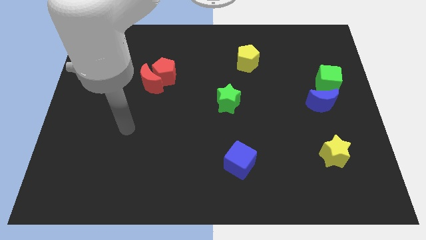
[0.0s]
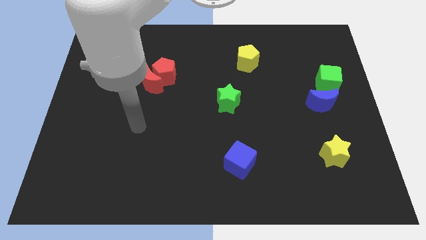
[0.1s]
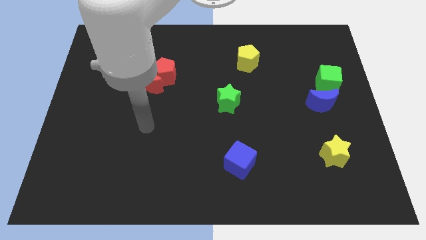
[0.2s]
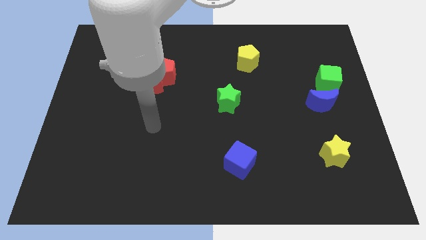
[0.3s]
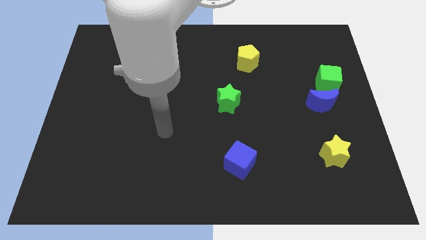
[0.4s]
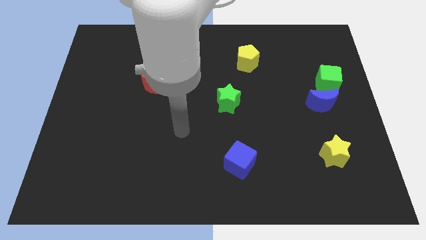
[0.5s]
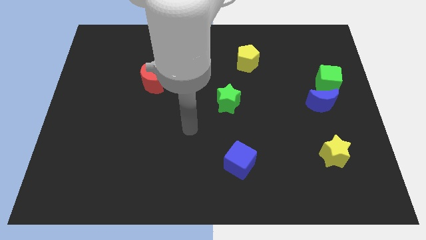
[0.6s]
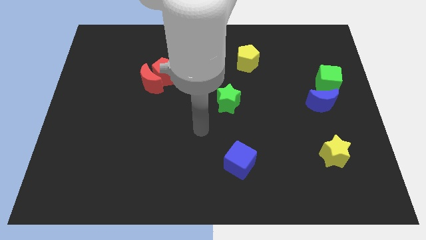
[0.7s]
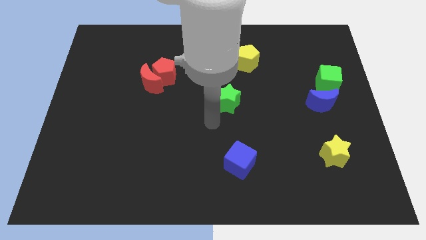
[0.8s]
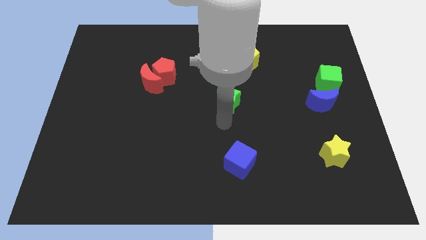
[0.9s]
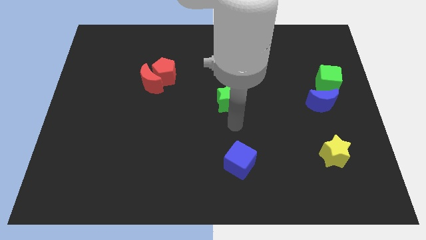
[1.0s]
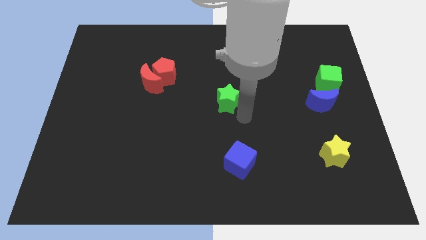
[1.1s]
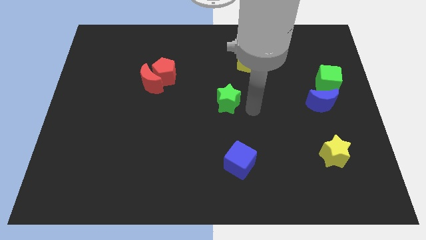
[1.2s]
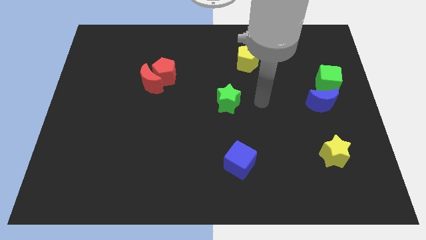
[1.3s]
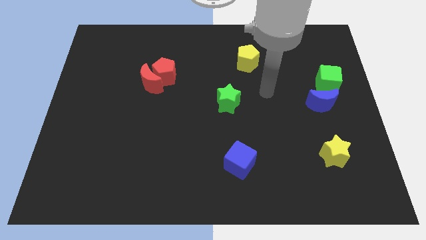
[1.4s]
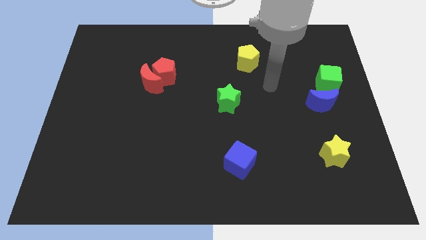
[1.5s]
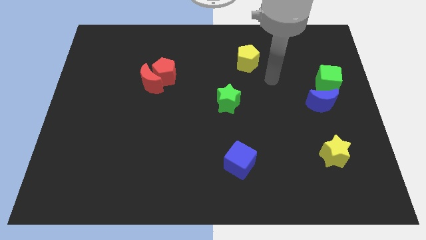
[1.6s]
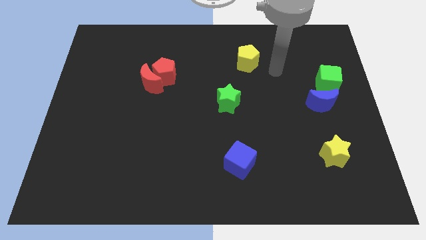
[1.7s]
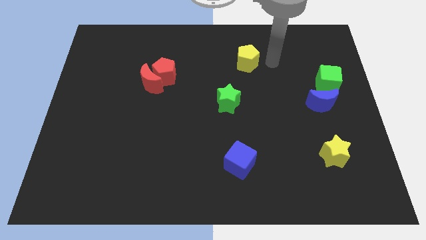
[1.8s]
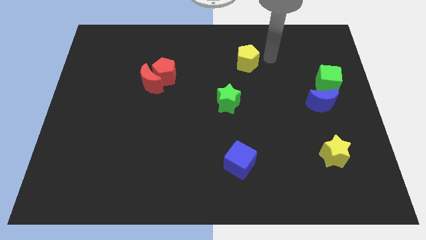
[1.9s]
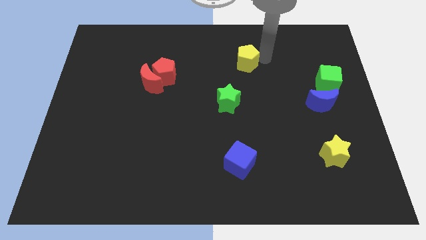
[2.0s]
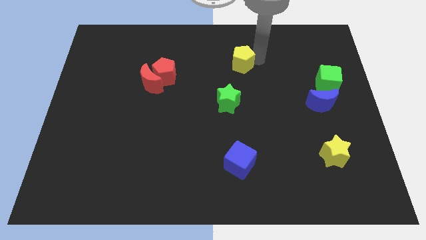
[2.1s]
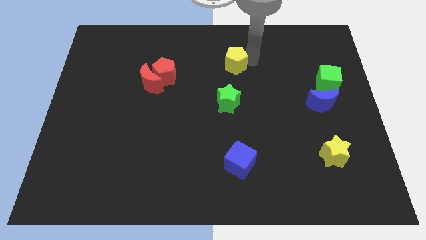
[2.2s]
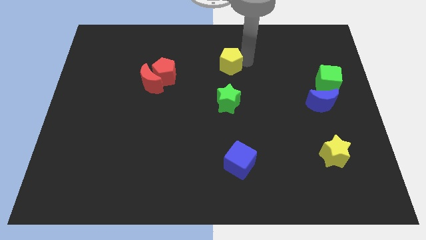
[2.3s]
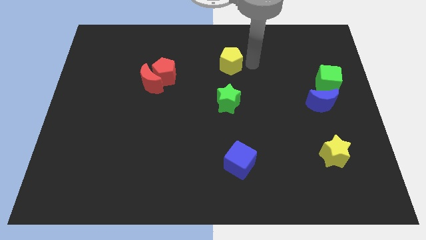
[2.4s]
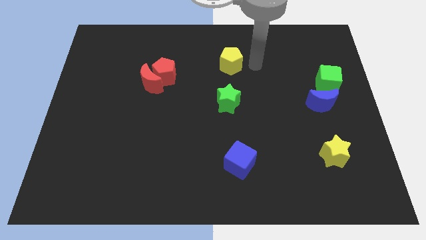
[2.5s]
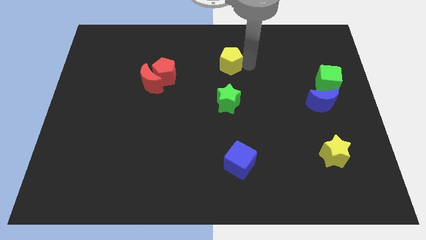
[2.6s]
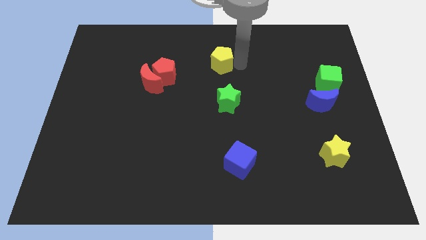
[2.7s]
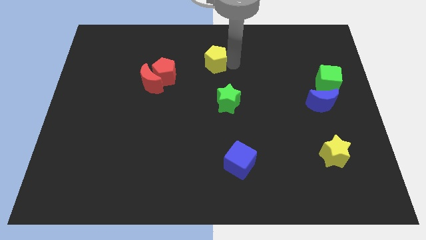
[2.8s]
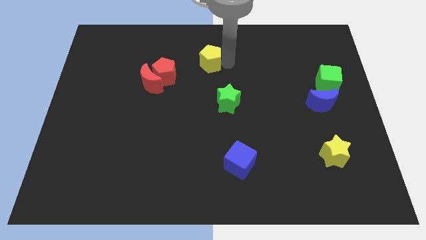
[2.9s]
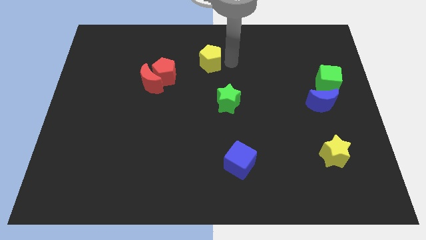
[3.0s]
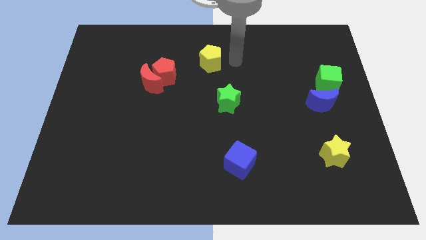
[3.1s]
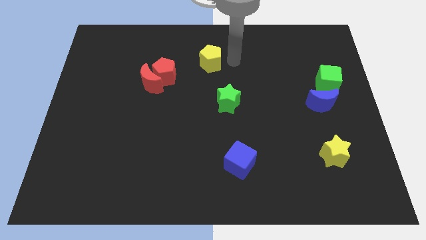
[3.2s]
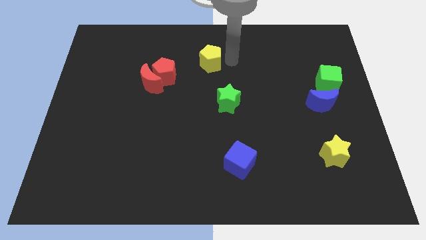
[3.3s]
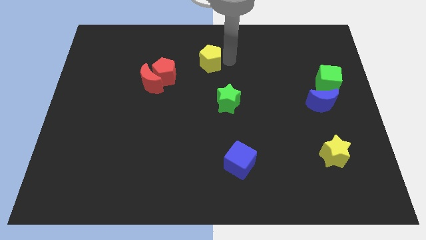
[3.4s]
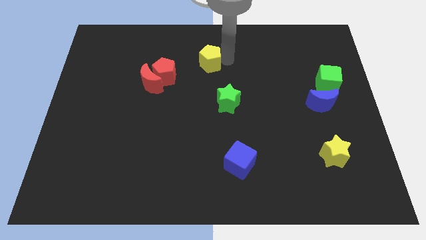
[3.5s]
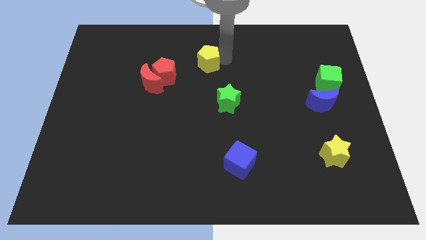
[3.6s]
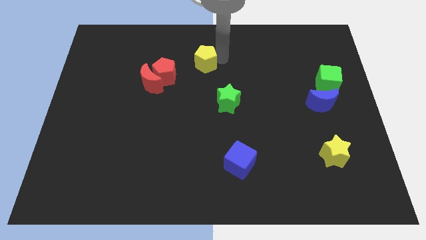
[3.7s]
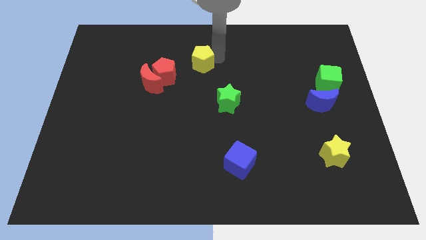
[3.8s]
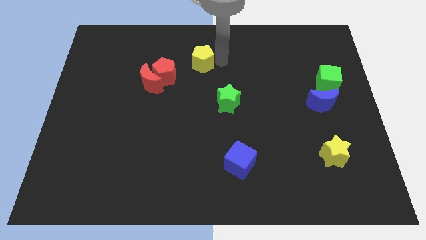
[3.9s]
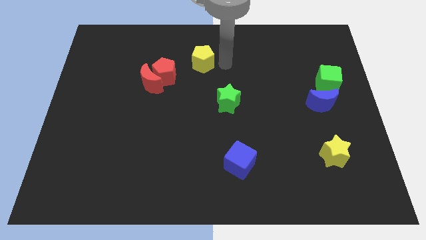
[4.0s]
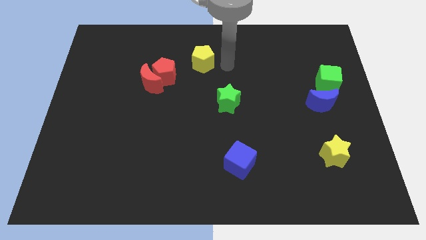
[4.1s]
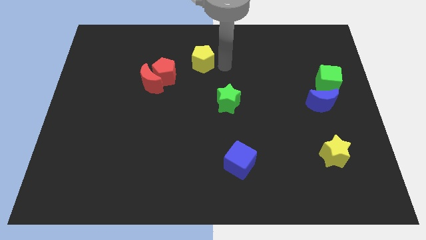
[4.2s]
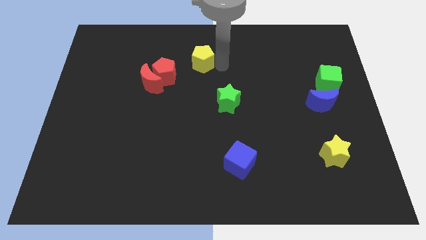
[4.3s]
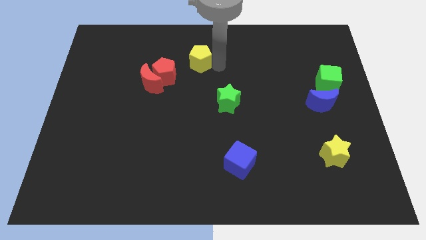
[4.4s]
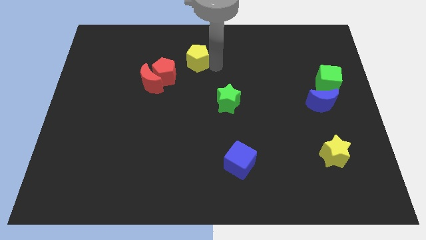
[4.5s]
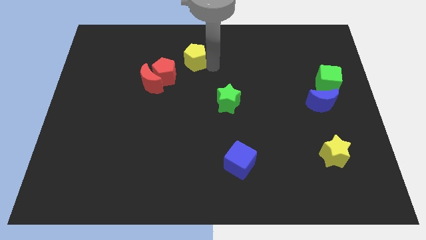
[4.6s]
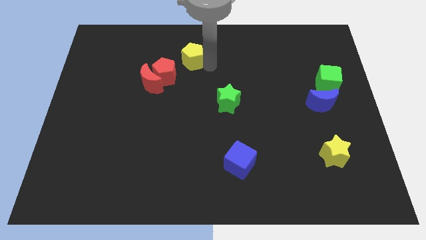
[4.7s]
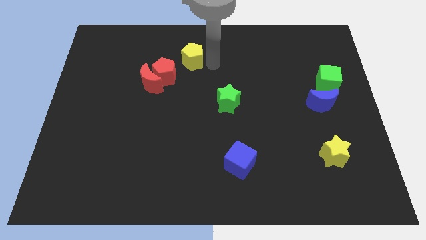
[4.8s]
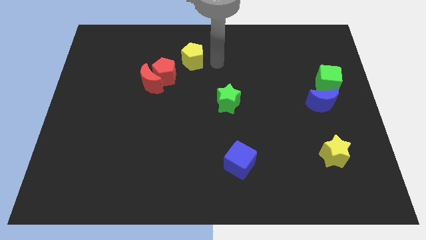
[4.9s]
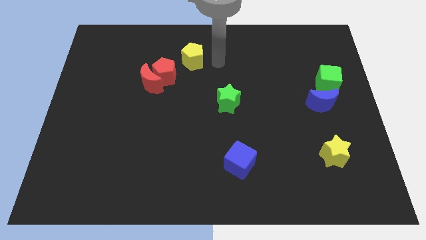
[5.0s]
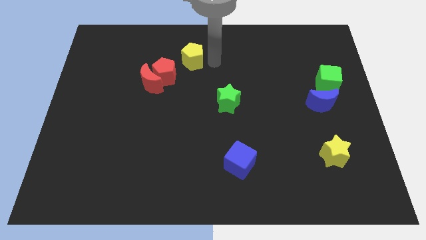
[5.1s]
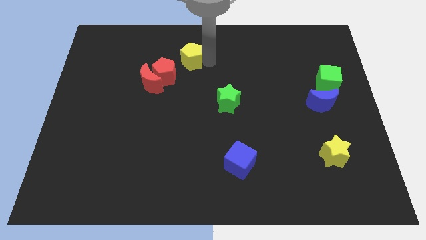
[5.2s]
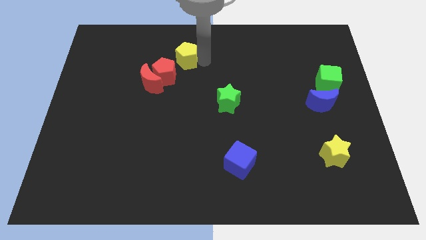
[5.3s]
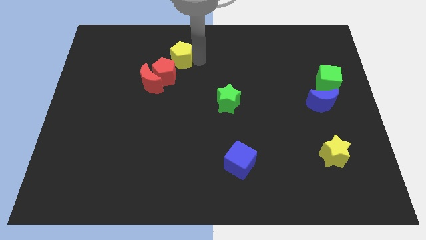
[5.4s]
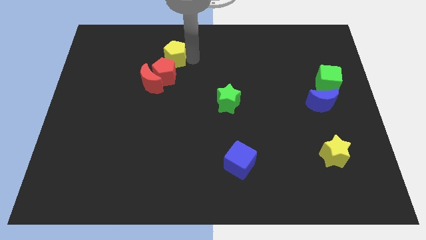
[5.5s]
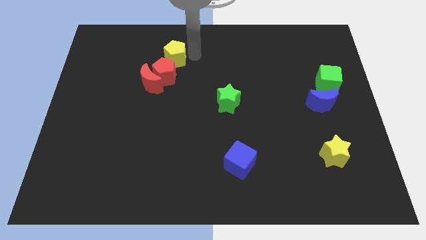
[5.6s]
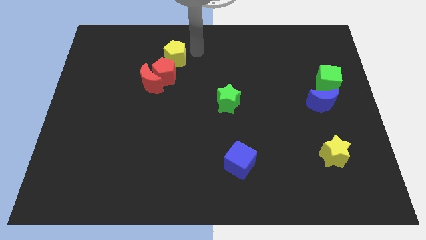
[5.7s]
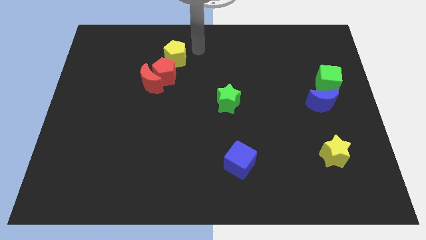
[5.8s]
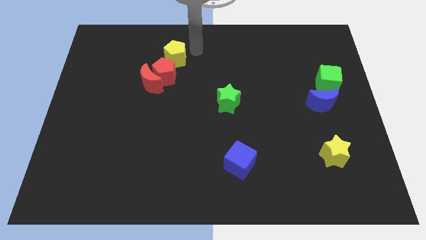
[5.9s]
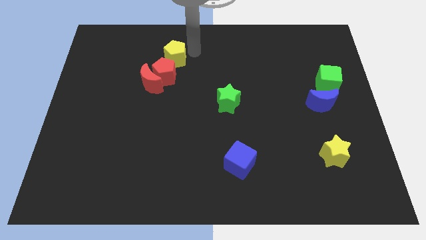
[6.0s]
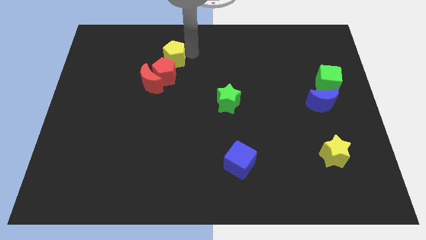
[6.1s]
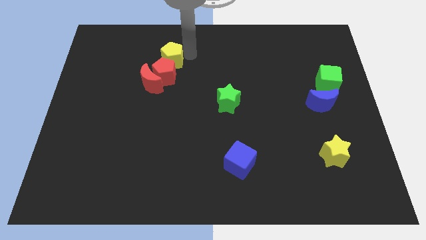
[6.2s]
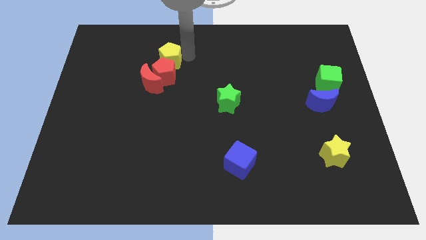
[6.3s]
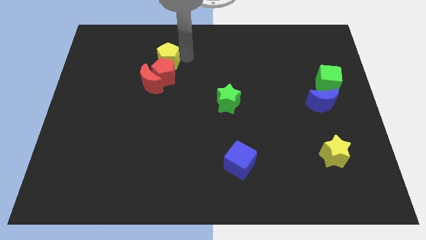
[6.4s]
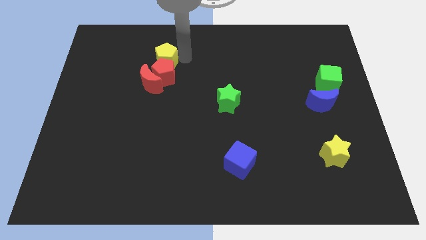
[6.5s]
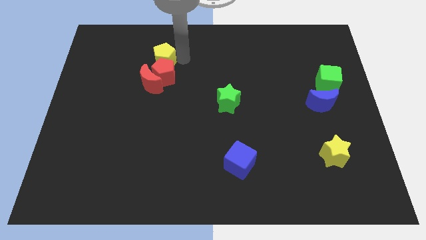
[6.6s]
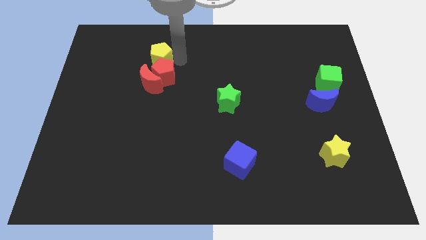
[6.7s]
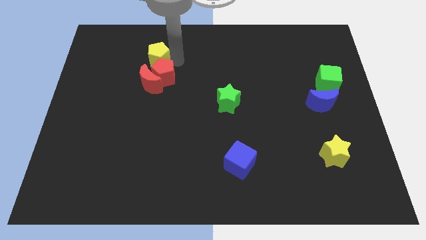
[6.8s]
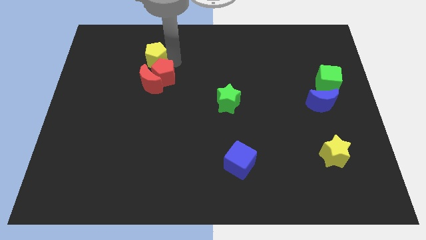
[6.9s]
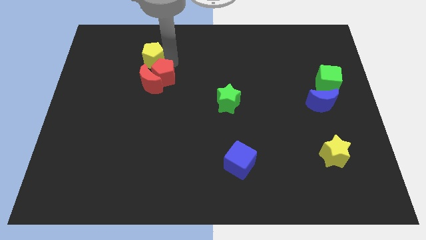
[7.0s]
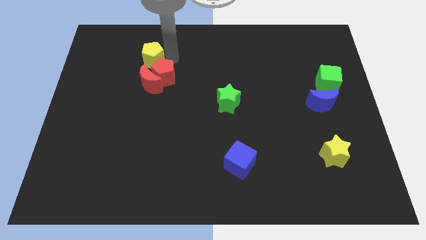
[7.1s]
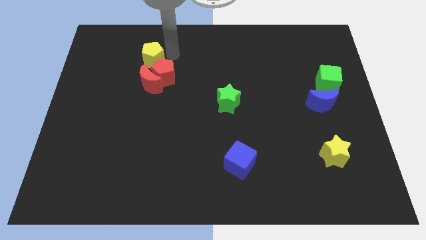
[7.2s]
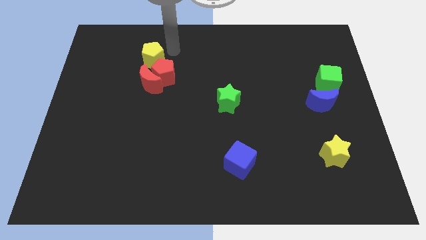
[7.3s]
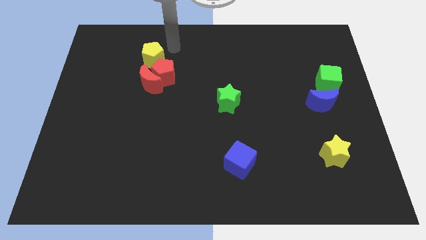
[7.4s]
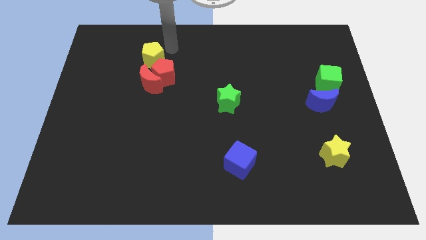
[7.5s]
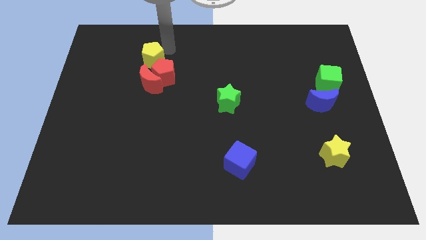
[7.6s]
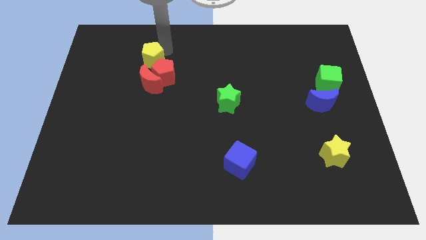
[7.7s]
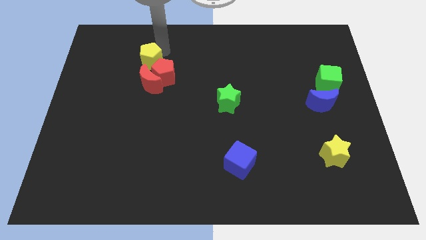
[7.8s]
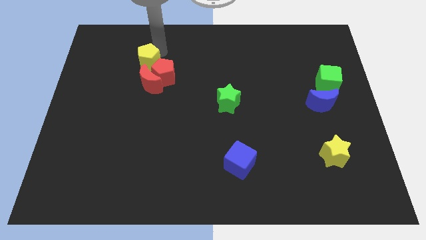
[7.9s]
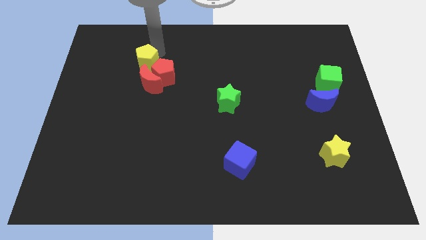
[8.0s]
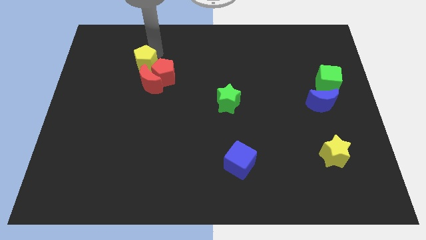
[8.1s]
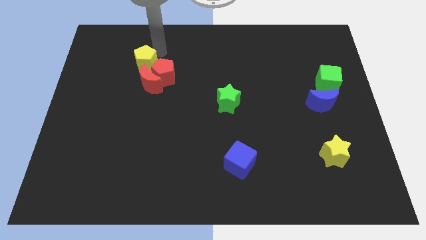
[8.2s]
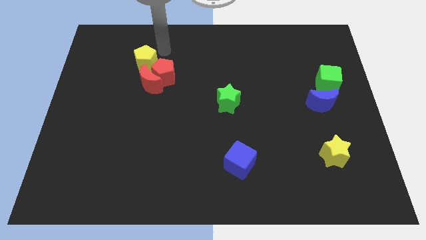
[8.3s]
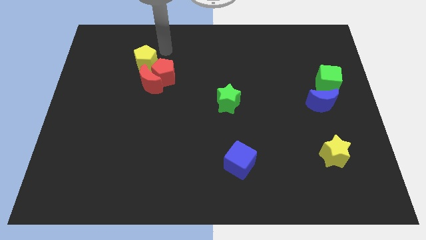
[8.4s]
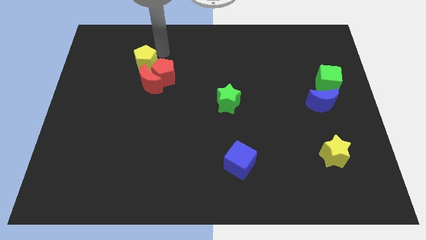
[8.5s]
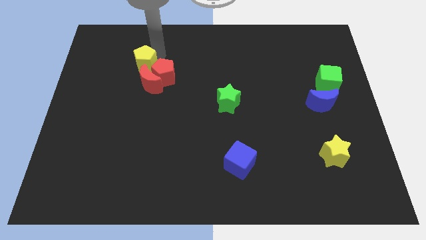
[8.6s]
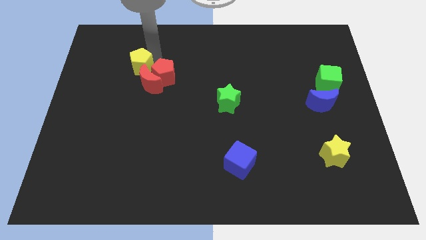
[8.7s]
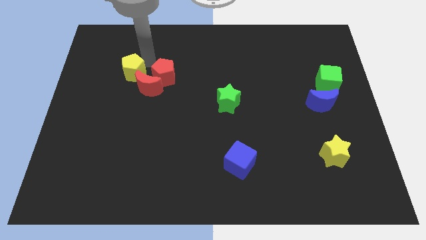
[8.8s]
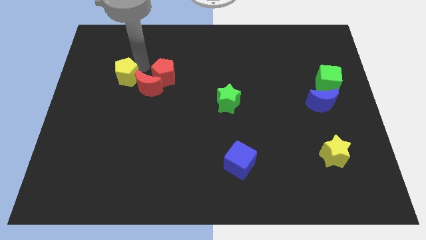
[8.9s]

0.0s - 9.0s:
slide the yellow pentagon to the left of the red moon
